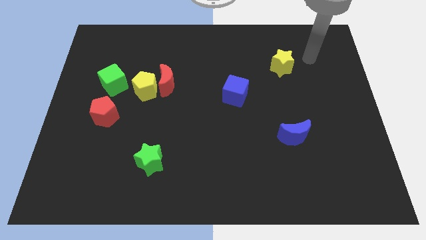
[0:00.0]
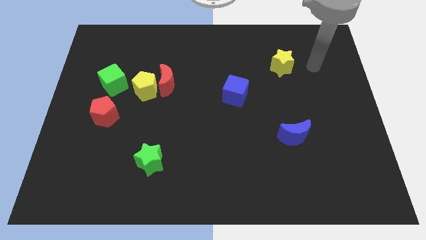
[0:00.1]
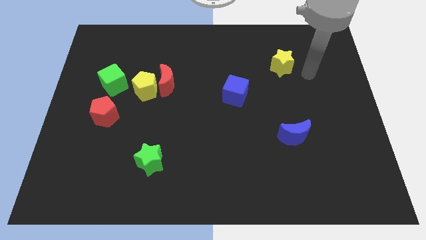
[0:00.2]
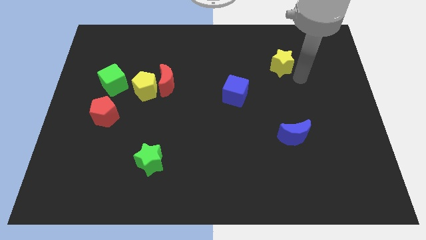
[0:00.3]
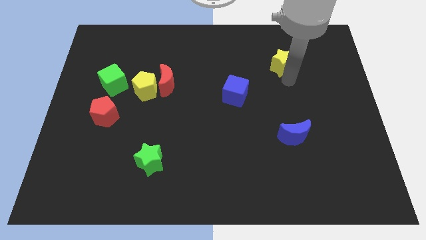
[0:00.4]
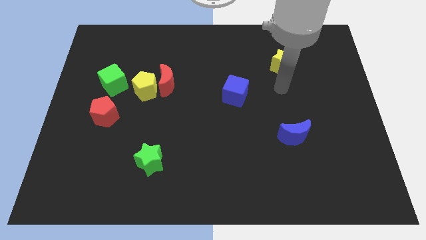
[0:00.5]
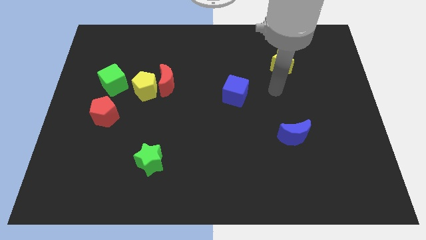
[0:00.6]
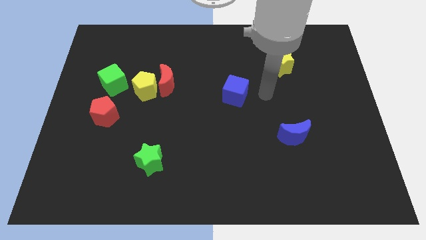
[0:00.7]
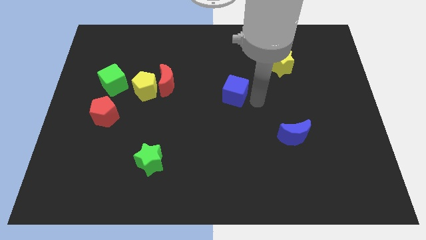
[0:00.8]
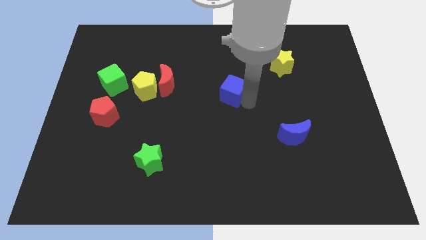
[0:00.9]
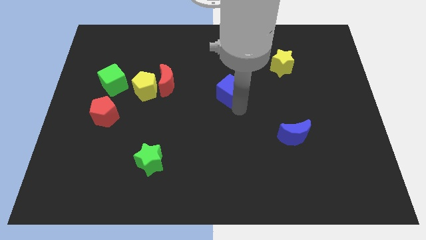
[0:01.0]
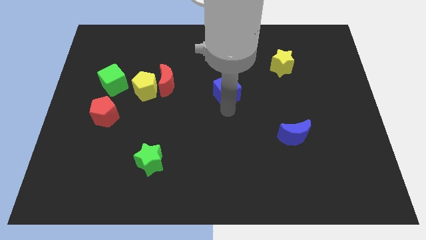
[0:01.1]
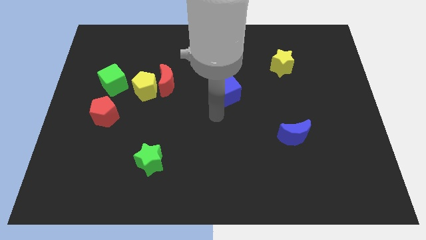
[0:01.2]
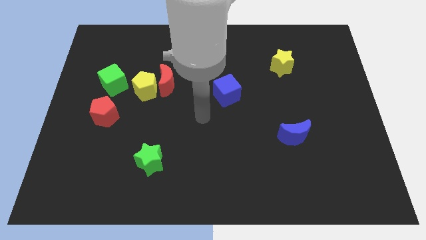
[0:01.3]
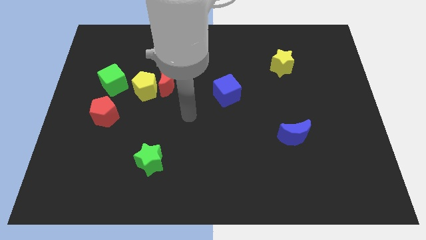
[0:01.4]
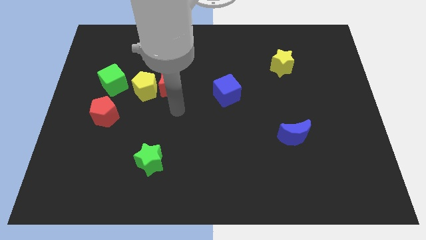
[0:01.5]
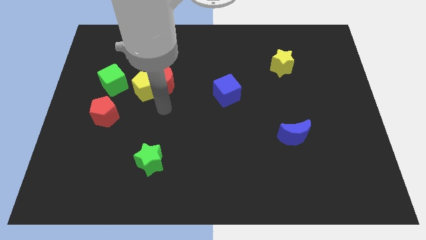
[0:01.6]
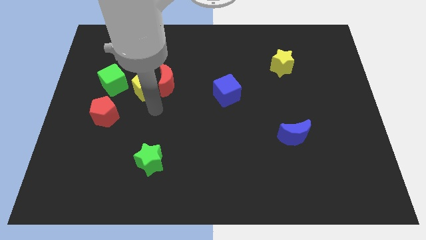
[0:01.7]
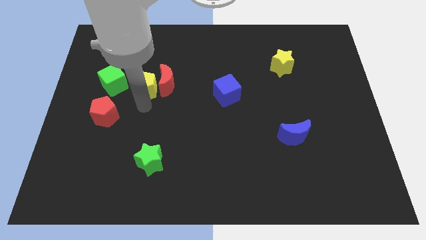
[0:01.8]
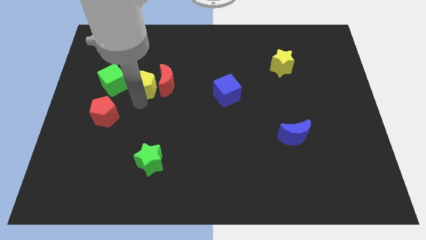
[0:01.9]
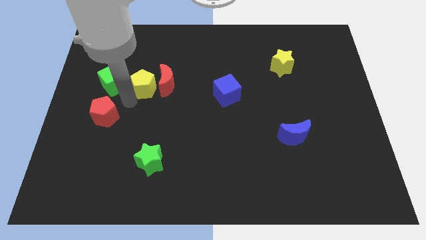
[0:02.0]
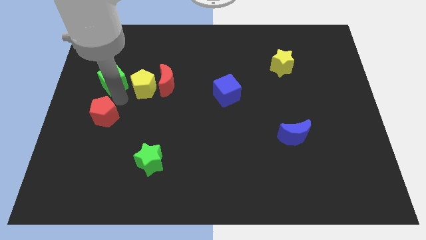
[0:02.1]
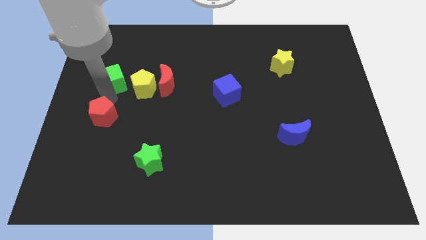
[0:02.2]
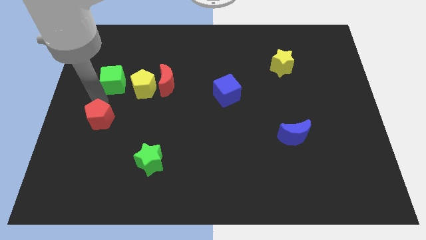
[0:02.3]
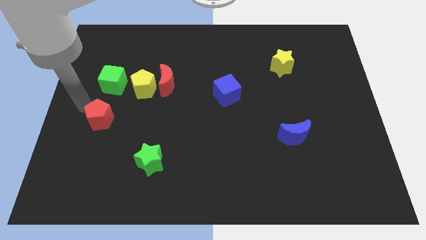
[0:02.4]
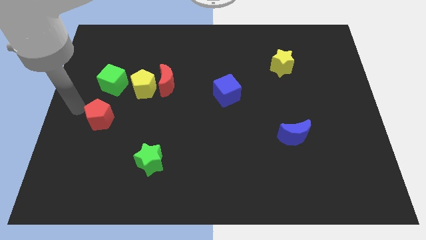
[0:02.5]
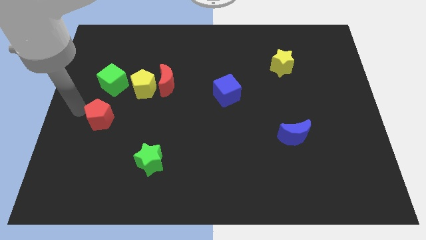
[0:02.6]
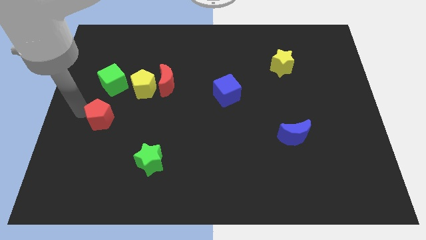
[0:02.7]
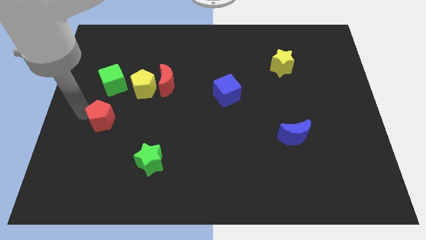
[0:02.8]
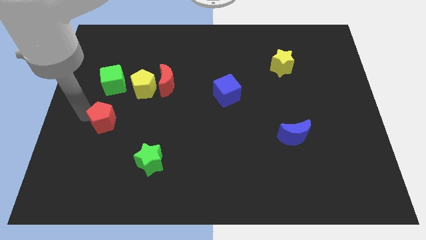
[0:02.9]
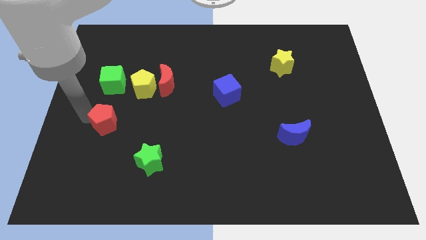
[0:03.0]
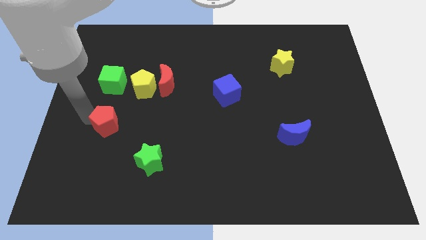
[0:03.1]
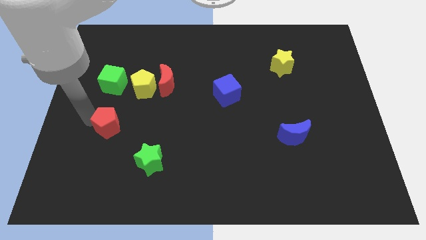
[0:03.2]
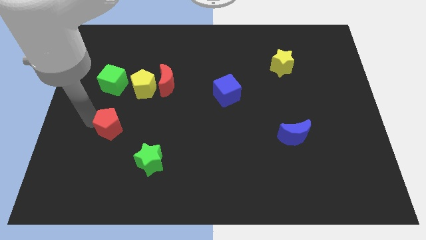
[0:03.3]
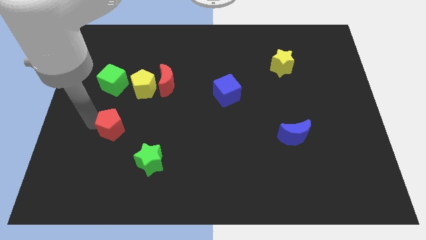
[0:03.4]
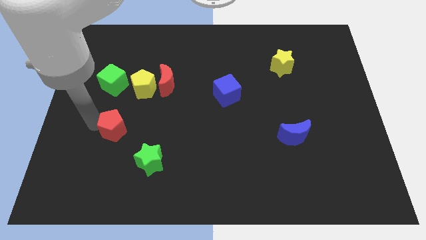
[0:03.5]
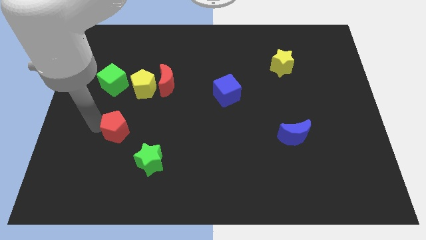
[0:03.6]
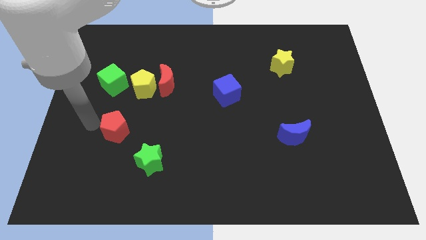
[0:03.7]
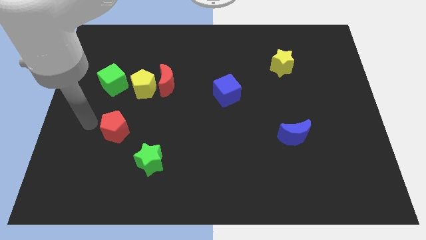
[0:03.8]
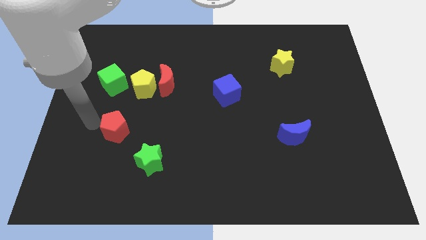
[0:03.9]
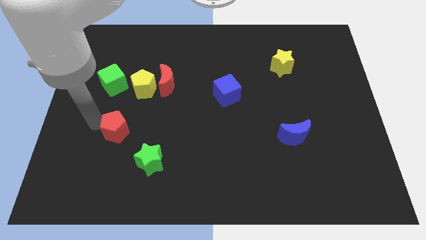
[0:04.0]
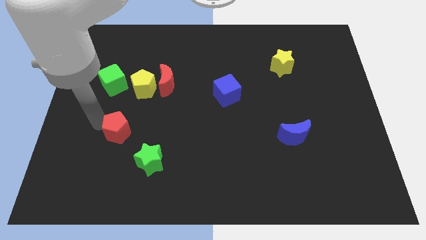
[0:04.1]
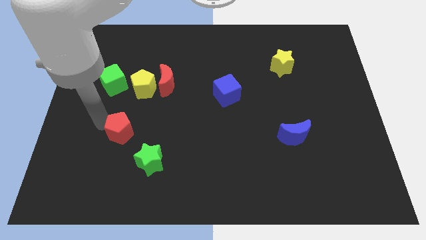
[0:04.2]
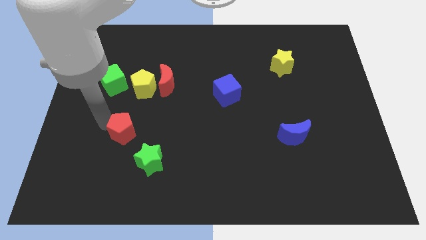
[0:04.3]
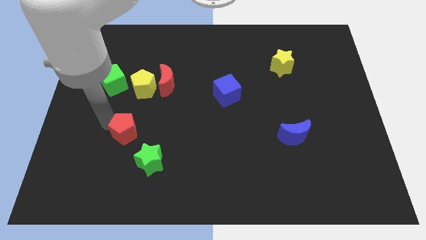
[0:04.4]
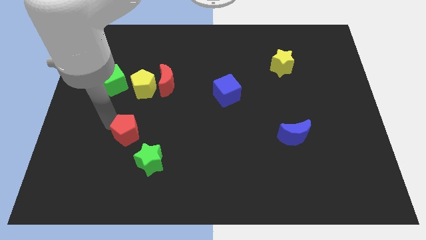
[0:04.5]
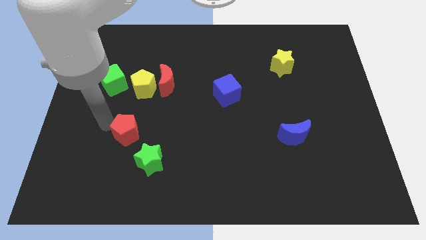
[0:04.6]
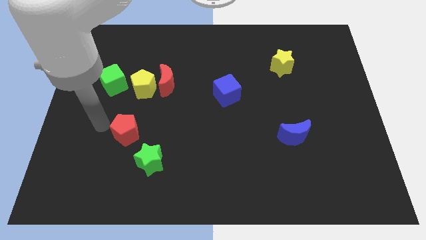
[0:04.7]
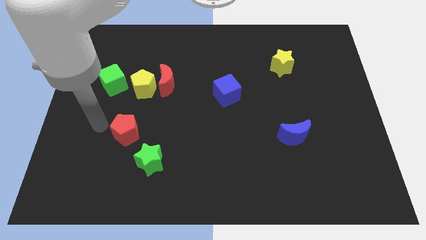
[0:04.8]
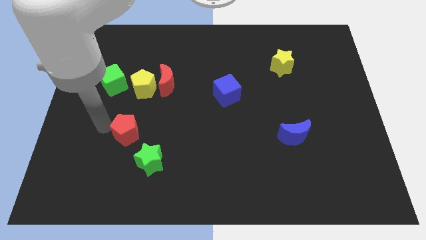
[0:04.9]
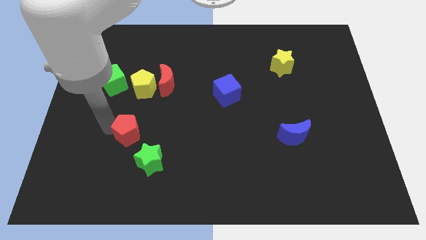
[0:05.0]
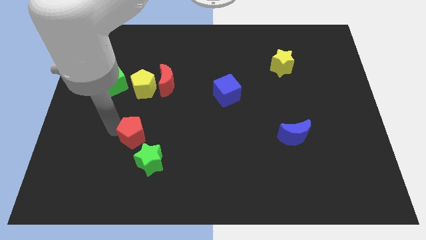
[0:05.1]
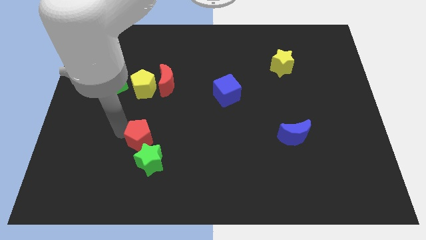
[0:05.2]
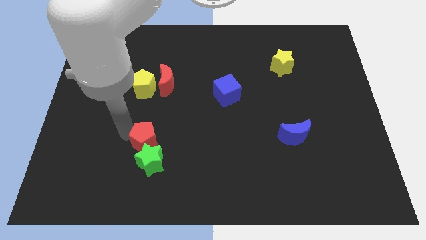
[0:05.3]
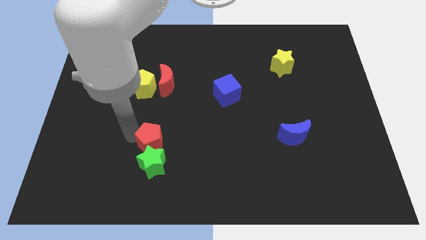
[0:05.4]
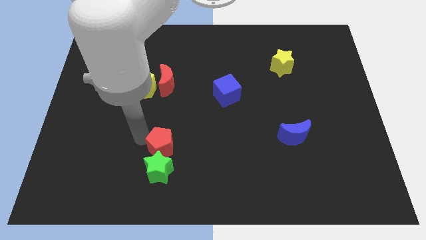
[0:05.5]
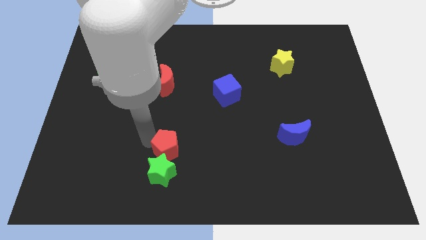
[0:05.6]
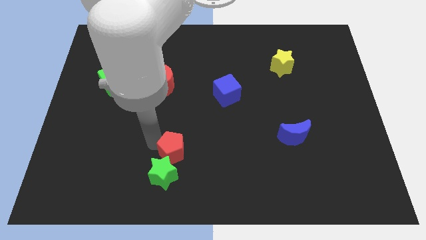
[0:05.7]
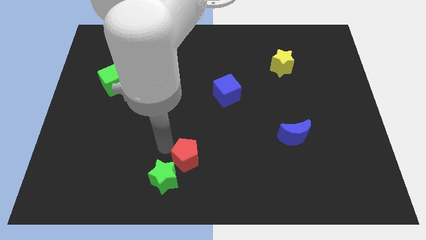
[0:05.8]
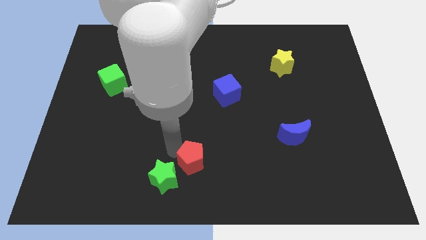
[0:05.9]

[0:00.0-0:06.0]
push the red pentagon right of the green star

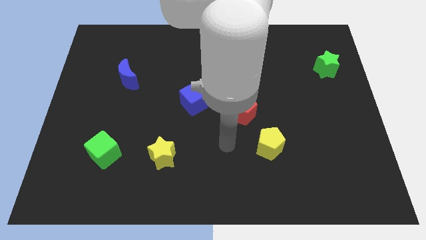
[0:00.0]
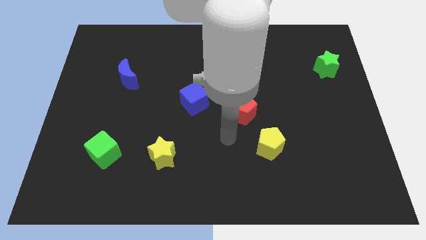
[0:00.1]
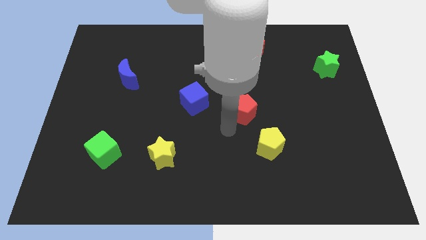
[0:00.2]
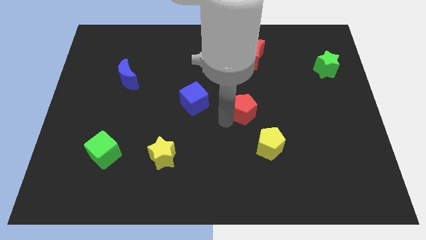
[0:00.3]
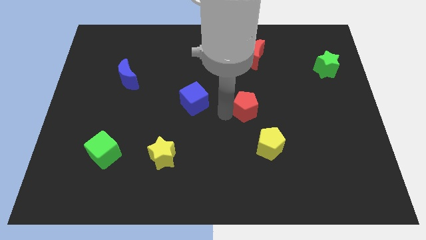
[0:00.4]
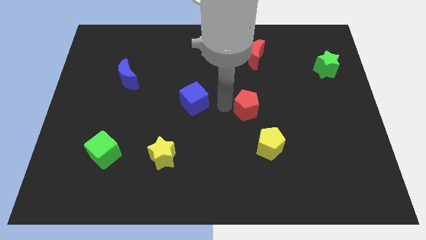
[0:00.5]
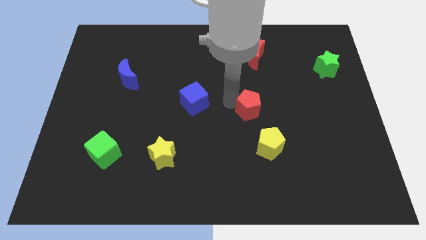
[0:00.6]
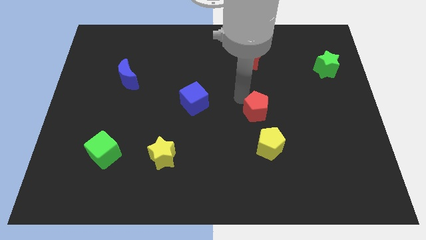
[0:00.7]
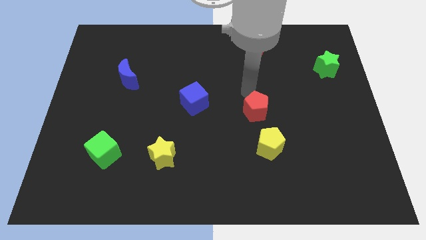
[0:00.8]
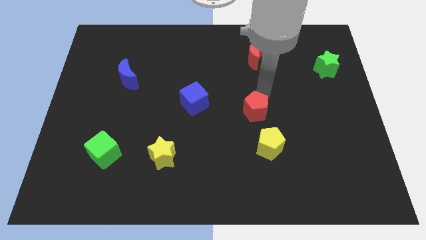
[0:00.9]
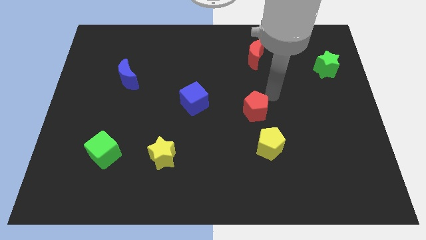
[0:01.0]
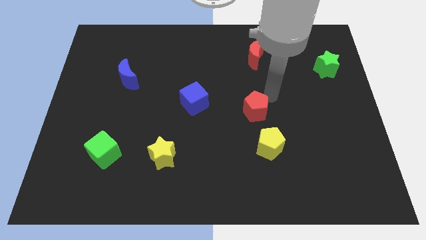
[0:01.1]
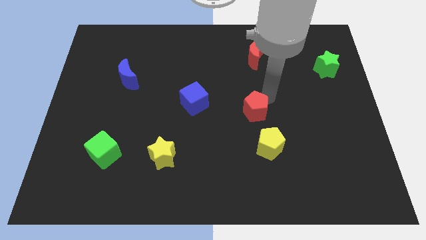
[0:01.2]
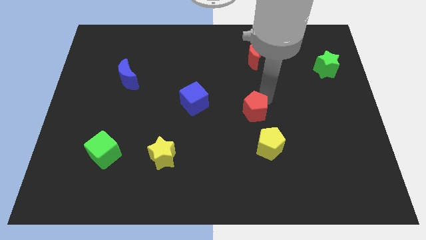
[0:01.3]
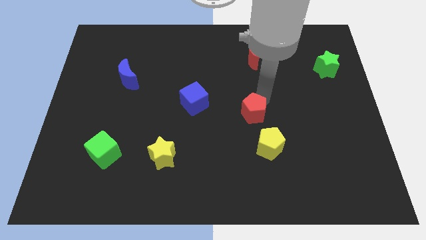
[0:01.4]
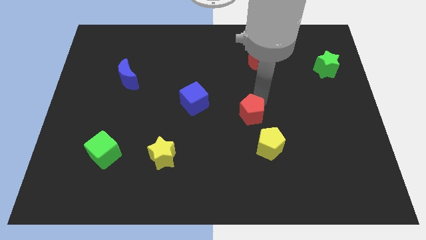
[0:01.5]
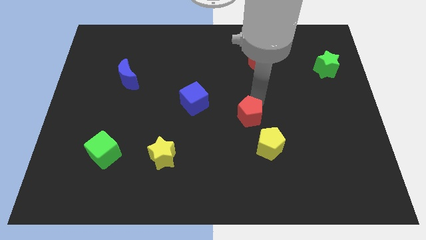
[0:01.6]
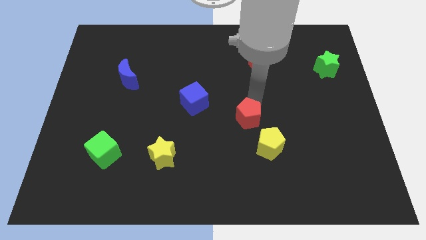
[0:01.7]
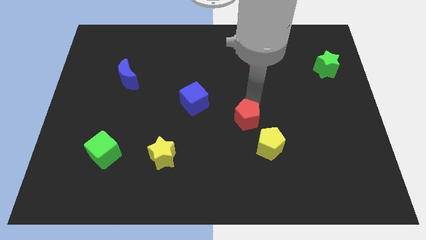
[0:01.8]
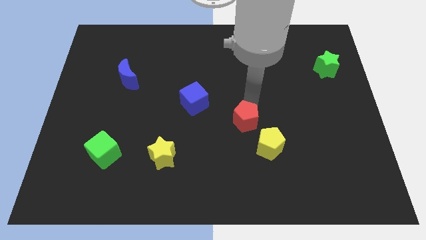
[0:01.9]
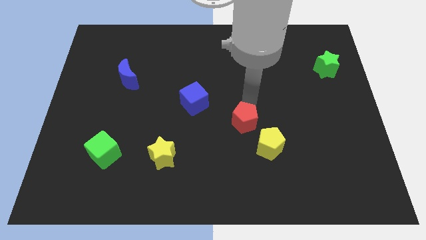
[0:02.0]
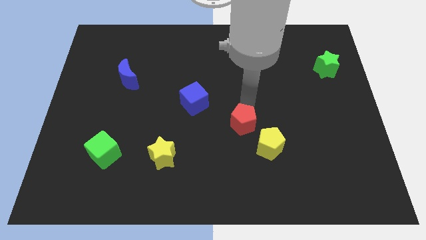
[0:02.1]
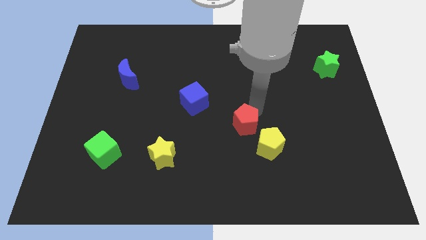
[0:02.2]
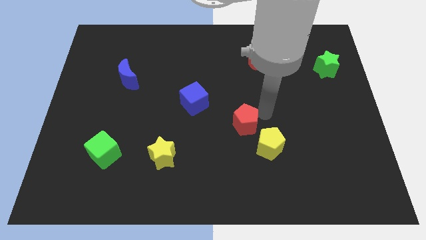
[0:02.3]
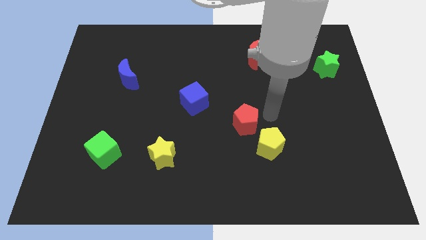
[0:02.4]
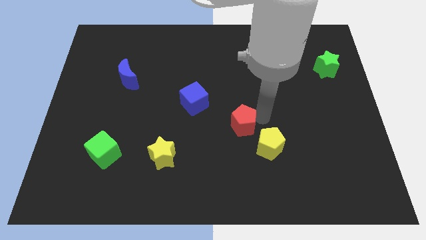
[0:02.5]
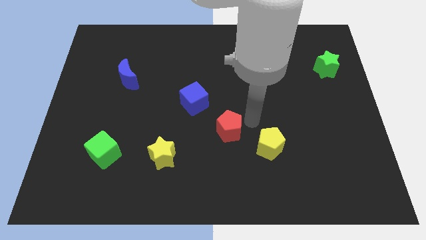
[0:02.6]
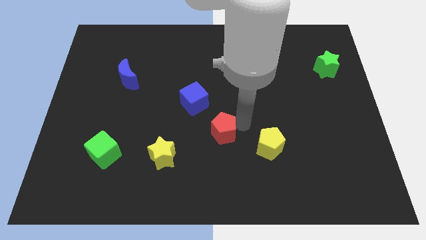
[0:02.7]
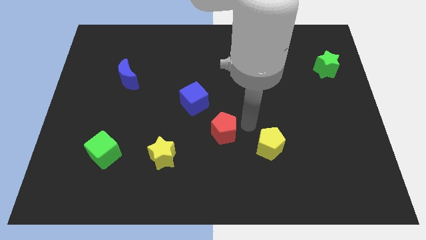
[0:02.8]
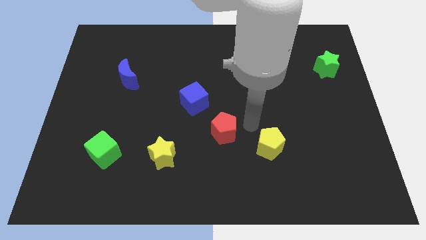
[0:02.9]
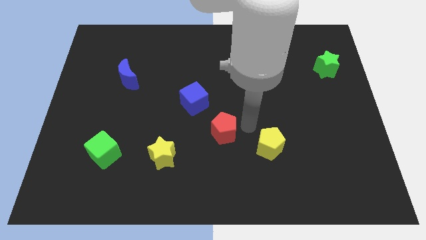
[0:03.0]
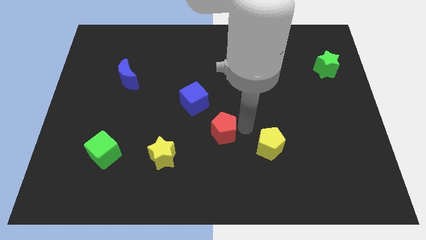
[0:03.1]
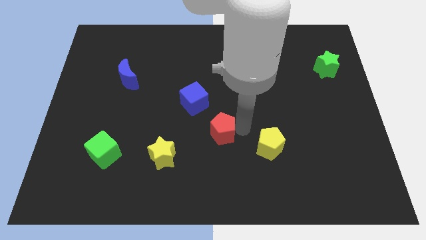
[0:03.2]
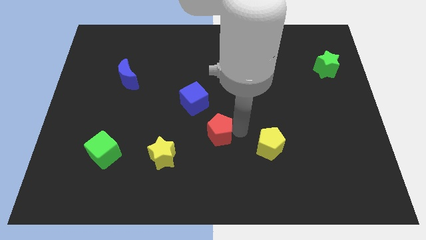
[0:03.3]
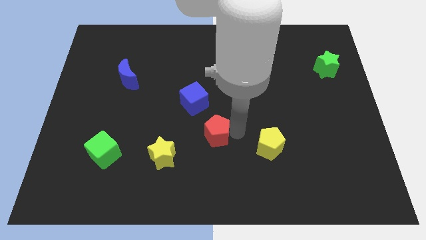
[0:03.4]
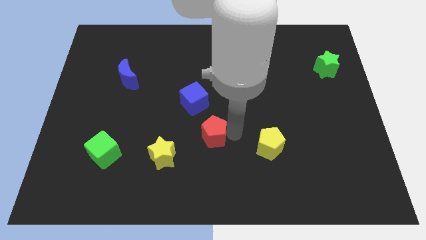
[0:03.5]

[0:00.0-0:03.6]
slide the red pentagon to the bottom of the blue cube
